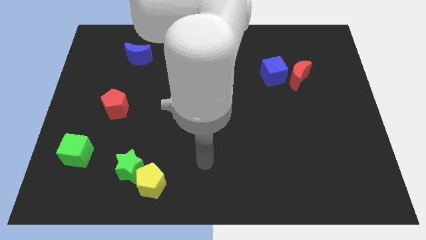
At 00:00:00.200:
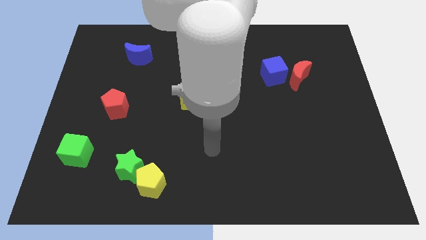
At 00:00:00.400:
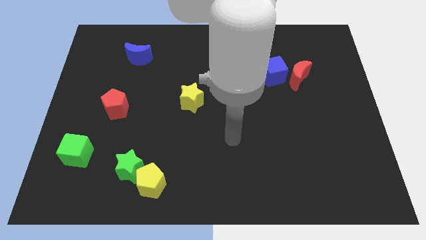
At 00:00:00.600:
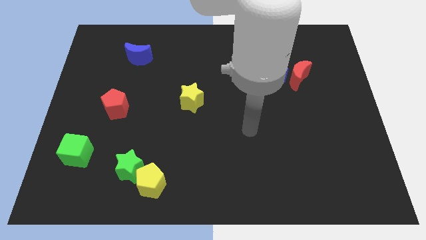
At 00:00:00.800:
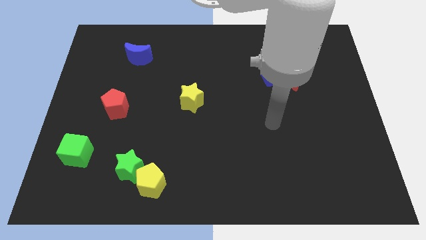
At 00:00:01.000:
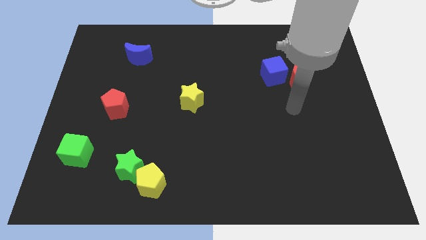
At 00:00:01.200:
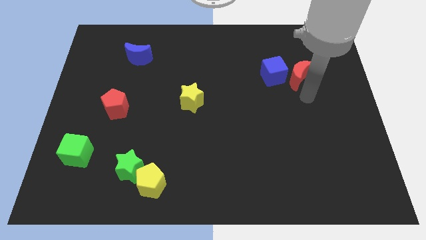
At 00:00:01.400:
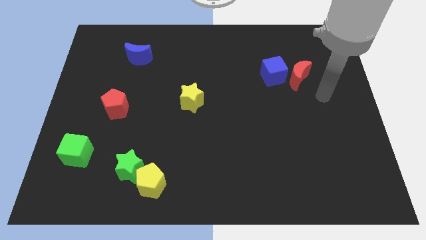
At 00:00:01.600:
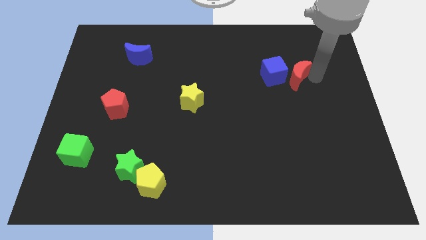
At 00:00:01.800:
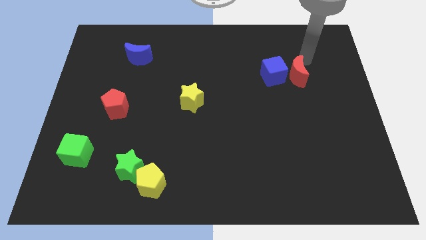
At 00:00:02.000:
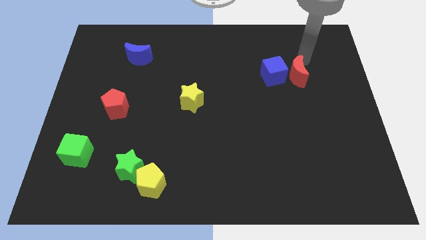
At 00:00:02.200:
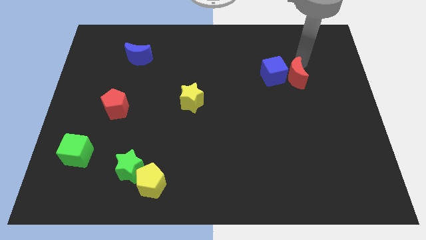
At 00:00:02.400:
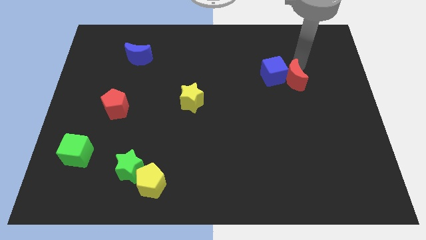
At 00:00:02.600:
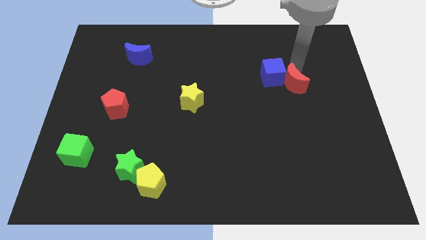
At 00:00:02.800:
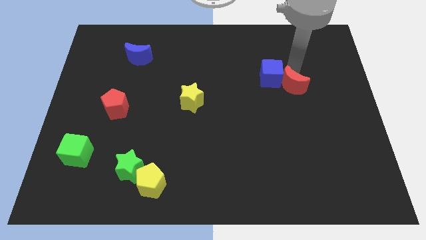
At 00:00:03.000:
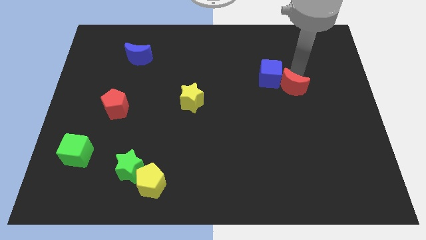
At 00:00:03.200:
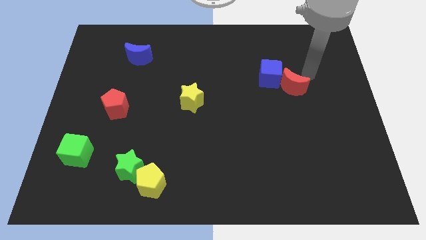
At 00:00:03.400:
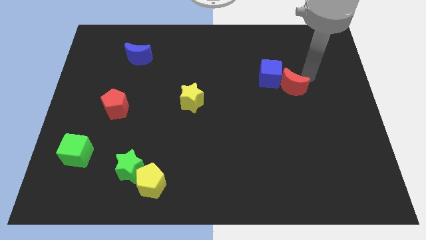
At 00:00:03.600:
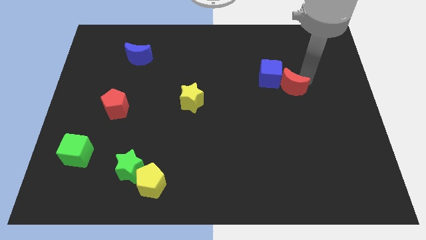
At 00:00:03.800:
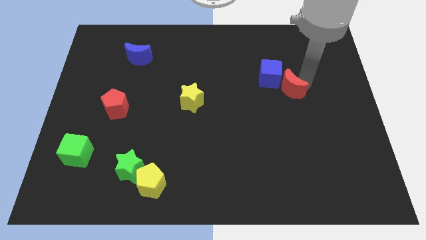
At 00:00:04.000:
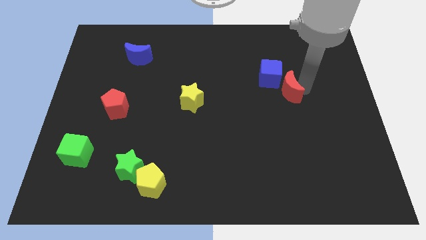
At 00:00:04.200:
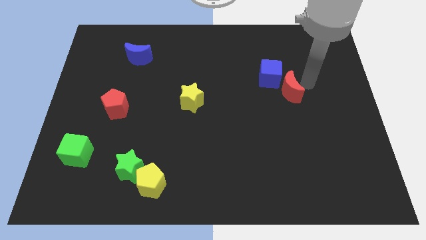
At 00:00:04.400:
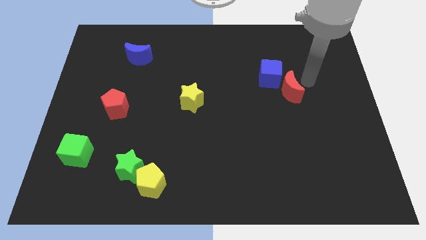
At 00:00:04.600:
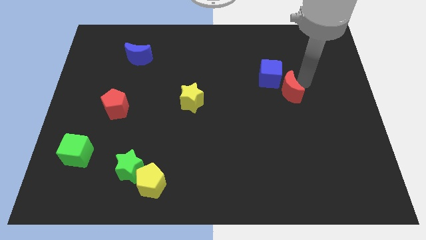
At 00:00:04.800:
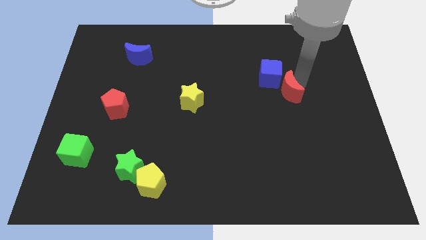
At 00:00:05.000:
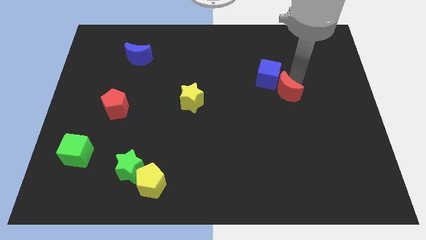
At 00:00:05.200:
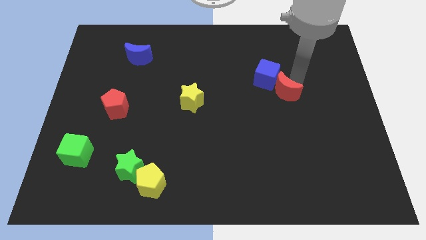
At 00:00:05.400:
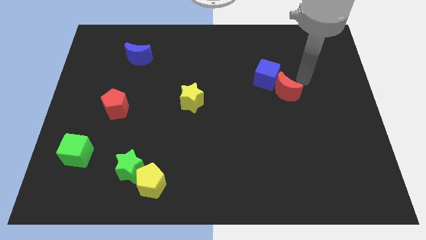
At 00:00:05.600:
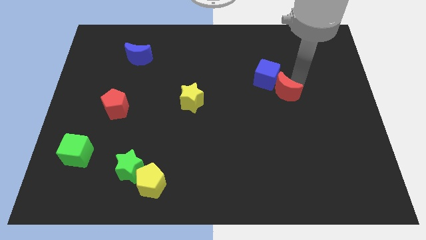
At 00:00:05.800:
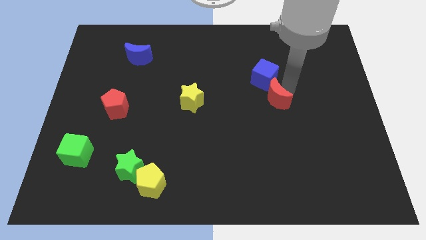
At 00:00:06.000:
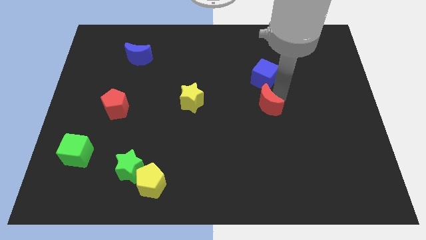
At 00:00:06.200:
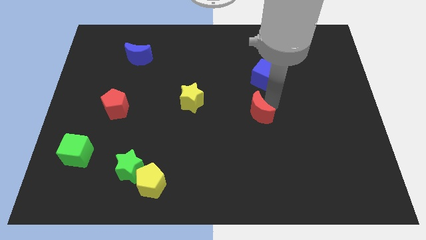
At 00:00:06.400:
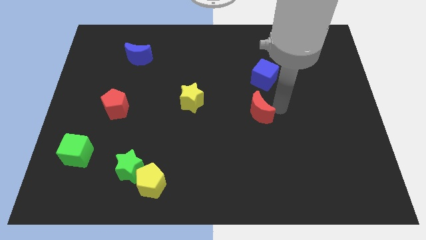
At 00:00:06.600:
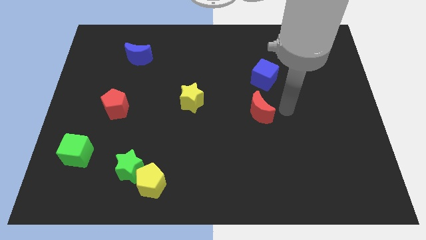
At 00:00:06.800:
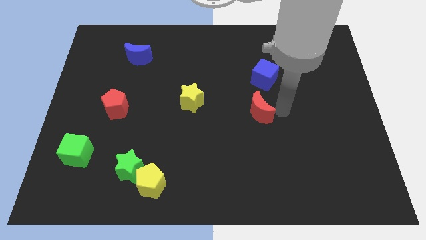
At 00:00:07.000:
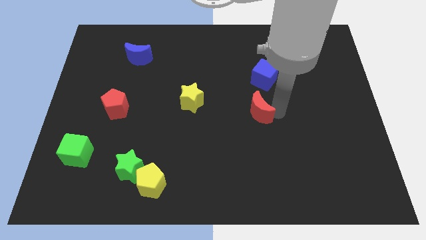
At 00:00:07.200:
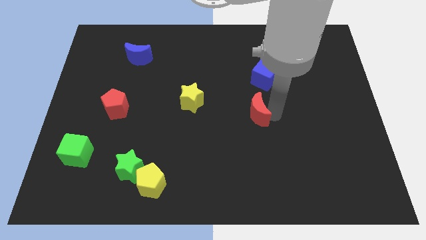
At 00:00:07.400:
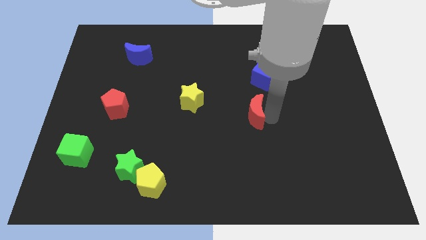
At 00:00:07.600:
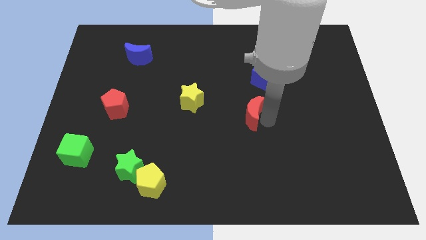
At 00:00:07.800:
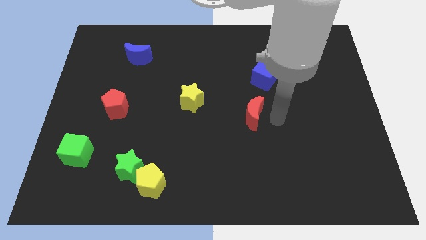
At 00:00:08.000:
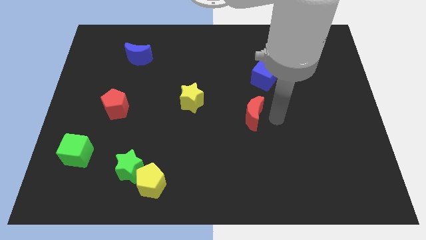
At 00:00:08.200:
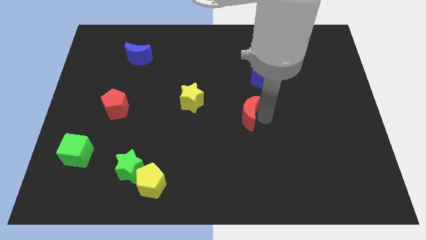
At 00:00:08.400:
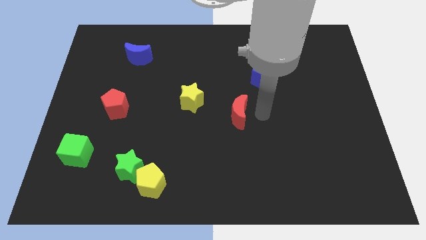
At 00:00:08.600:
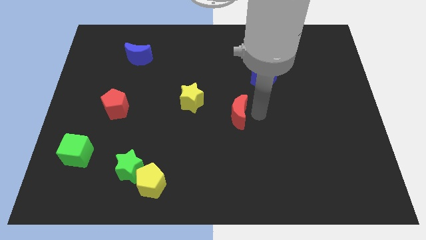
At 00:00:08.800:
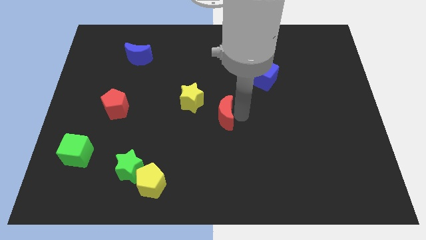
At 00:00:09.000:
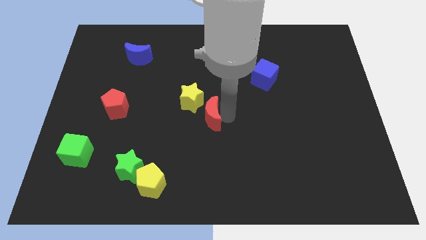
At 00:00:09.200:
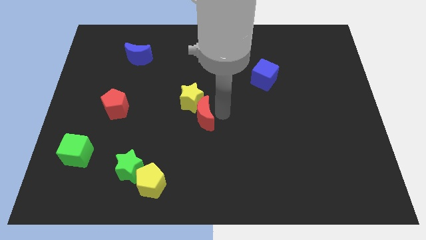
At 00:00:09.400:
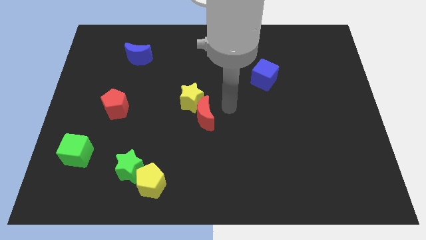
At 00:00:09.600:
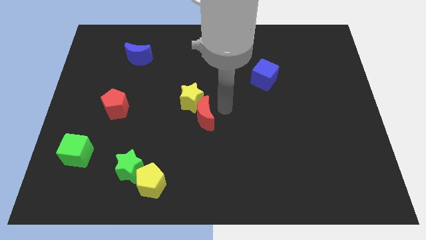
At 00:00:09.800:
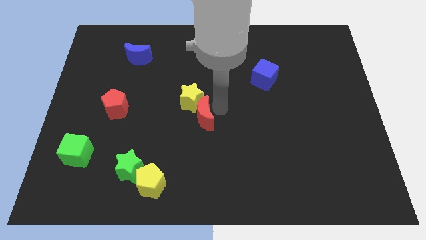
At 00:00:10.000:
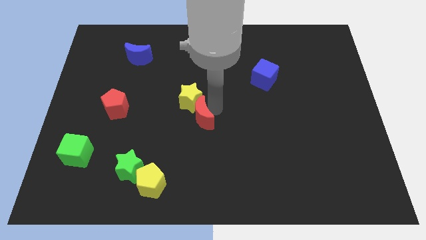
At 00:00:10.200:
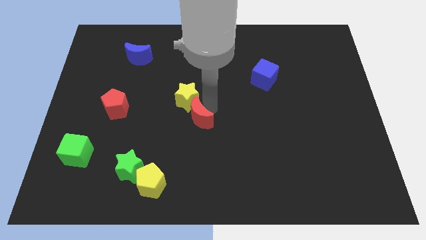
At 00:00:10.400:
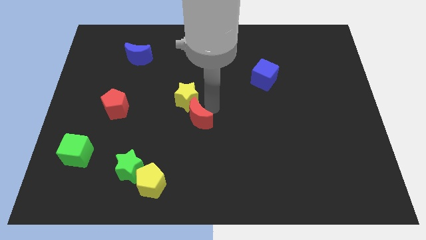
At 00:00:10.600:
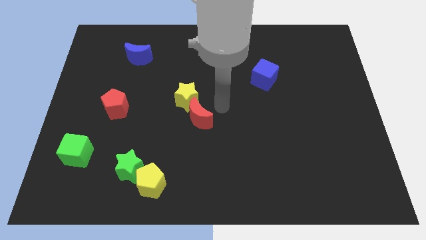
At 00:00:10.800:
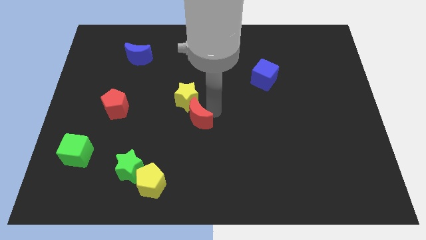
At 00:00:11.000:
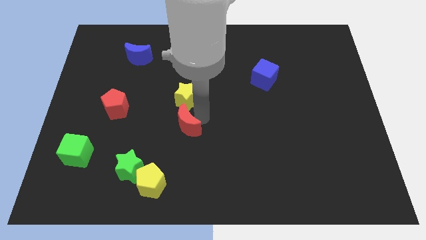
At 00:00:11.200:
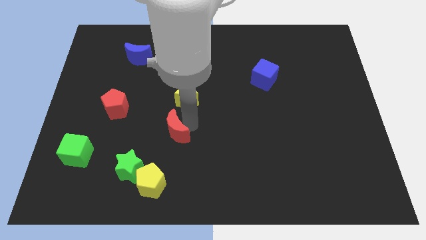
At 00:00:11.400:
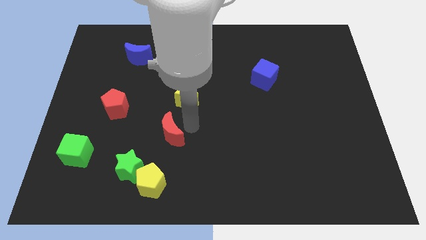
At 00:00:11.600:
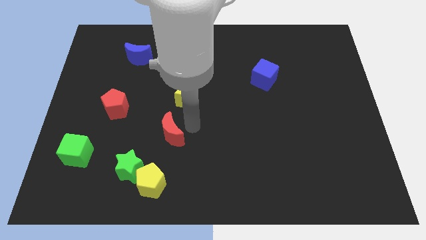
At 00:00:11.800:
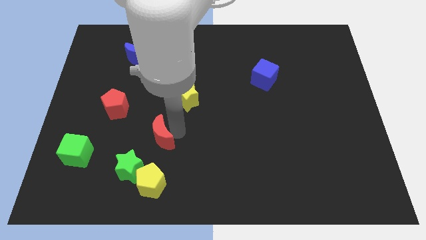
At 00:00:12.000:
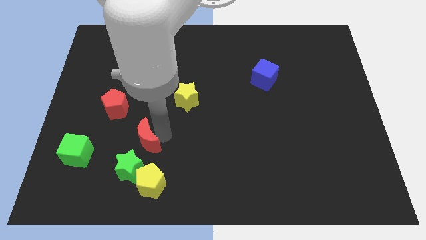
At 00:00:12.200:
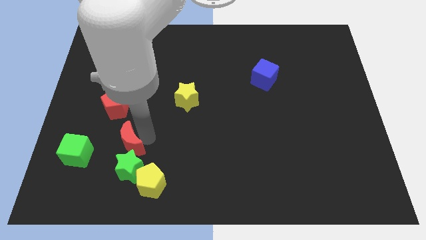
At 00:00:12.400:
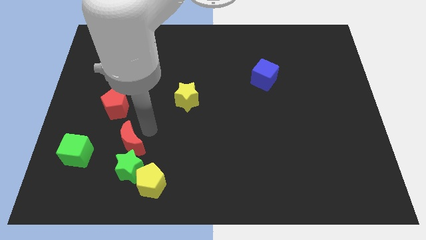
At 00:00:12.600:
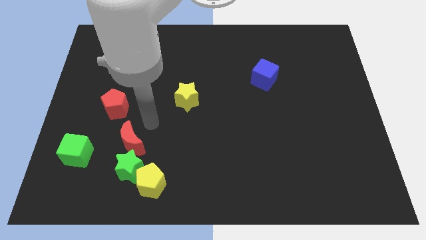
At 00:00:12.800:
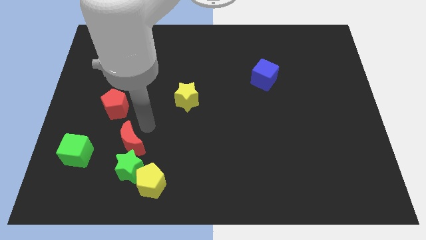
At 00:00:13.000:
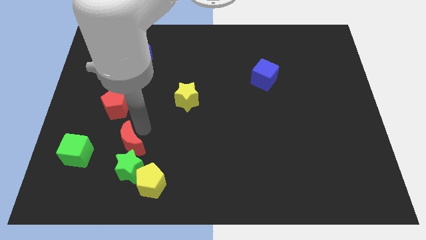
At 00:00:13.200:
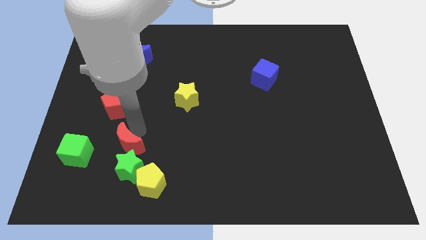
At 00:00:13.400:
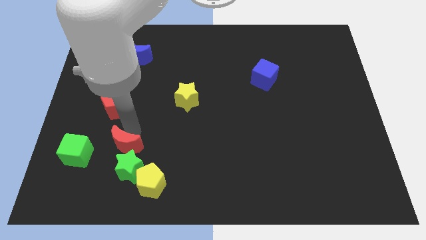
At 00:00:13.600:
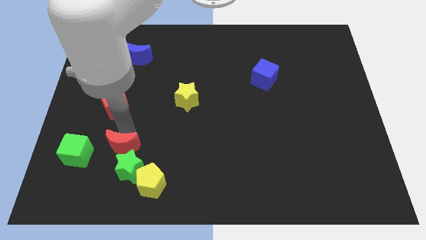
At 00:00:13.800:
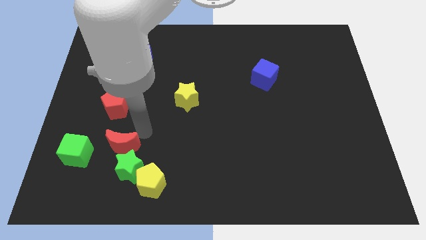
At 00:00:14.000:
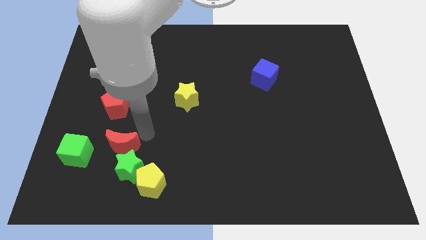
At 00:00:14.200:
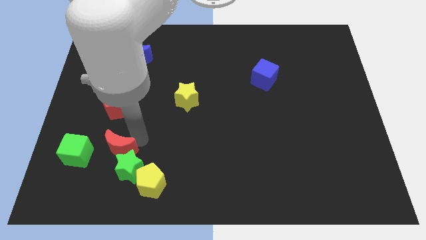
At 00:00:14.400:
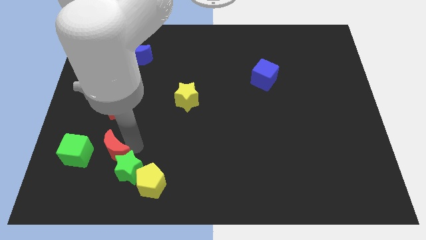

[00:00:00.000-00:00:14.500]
move the red moon to the left of the green star
